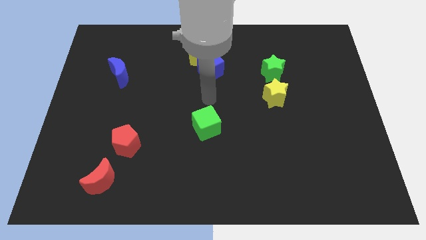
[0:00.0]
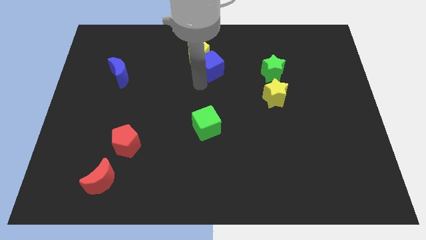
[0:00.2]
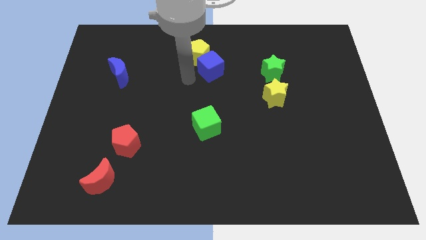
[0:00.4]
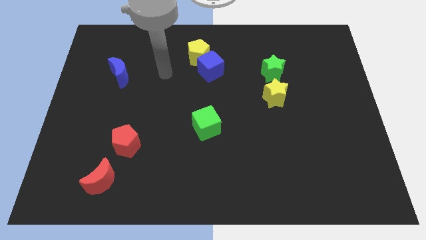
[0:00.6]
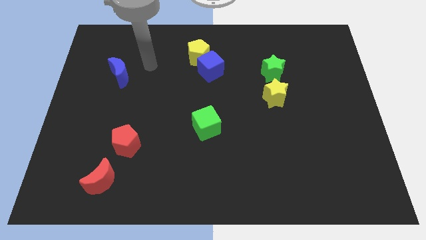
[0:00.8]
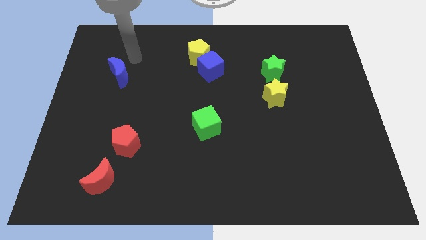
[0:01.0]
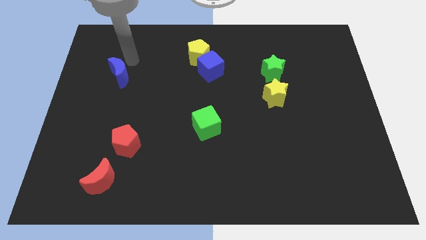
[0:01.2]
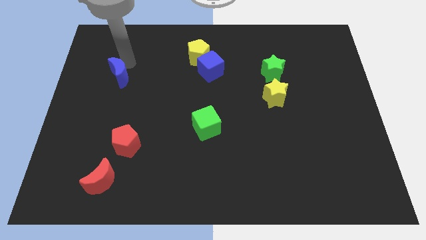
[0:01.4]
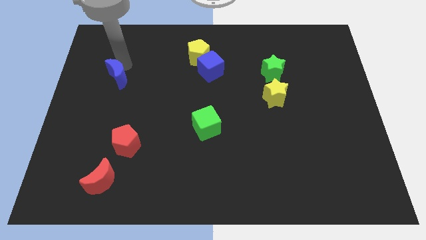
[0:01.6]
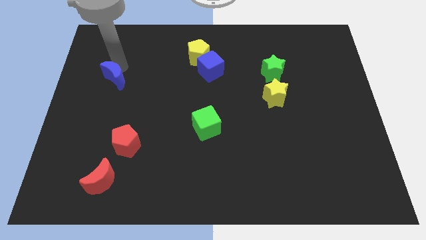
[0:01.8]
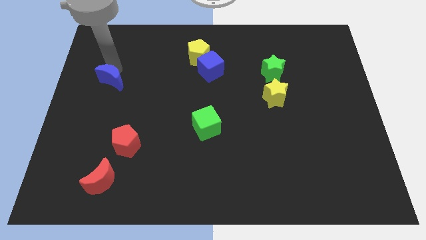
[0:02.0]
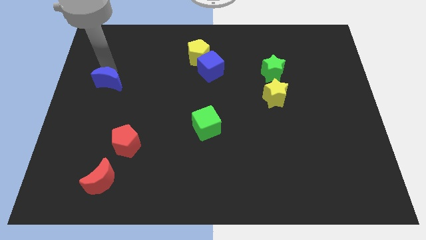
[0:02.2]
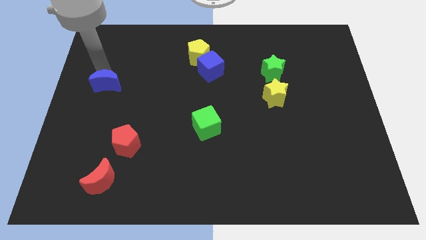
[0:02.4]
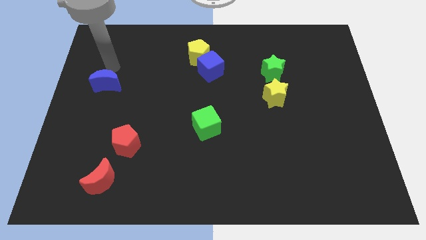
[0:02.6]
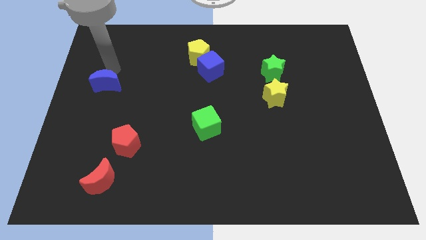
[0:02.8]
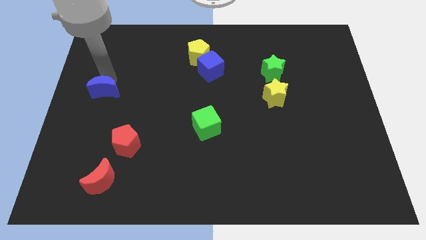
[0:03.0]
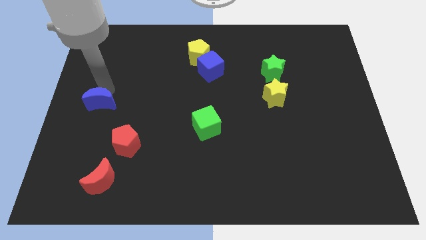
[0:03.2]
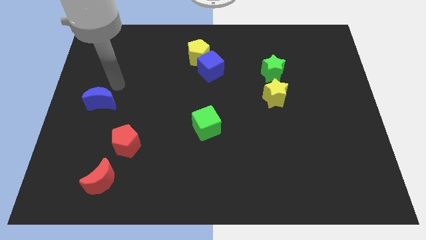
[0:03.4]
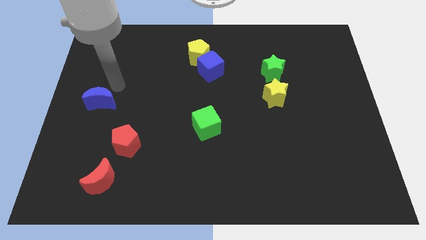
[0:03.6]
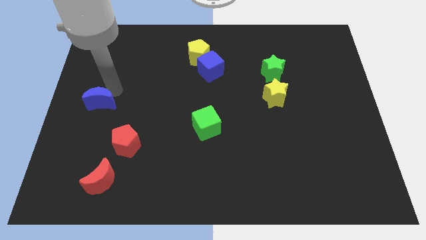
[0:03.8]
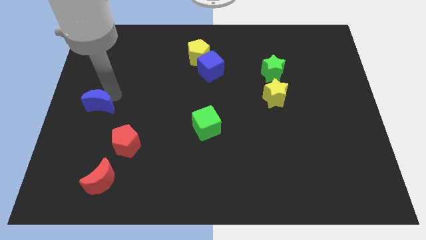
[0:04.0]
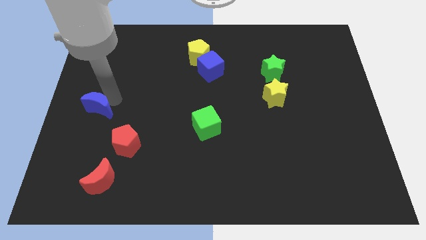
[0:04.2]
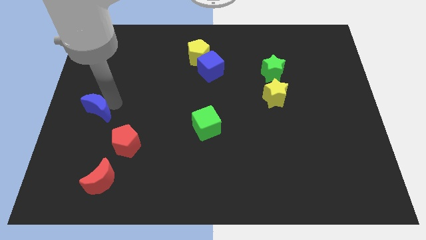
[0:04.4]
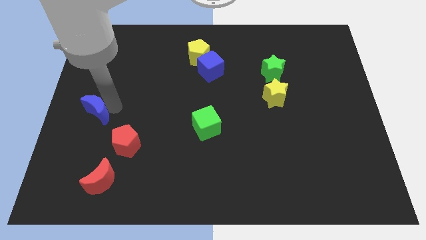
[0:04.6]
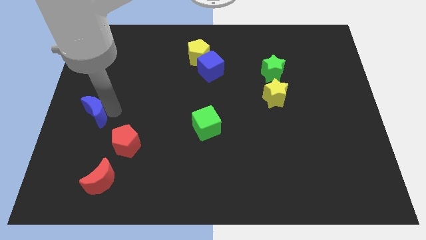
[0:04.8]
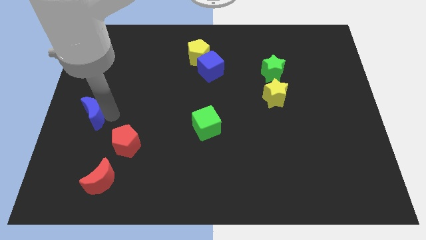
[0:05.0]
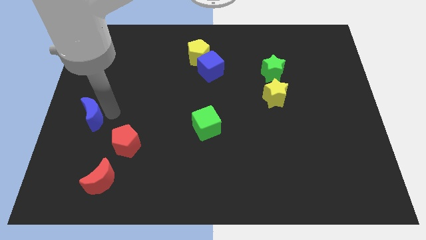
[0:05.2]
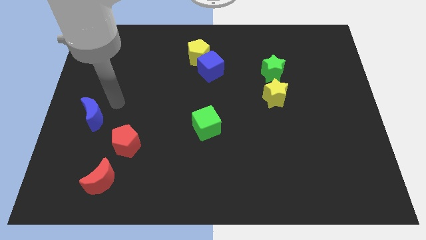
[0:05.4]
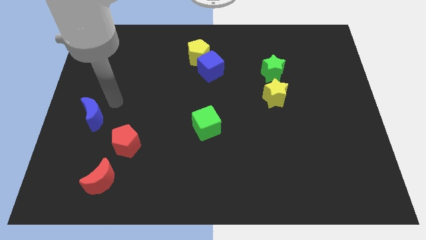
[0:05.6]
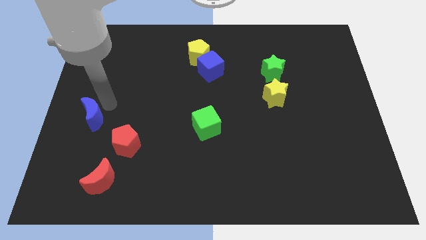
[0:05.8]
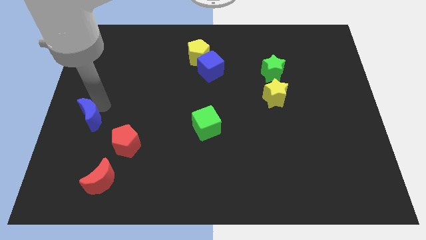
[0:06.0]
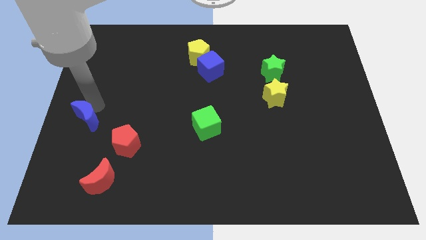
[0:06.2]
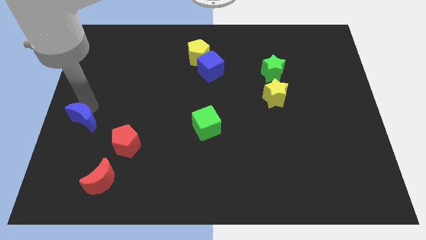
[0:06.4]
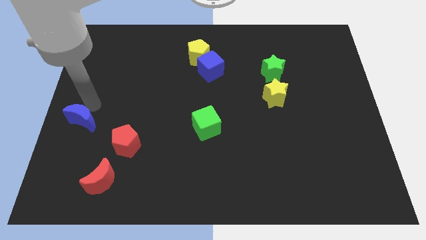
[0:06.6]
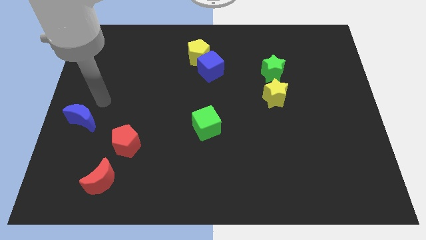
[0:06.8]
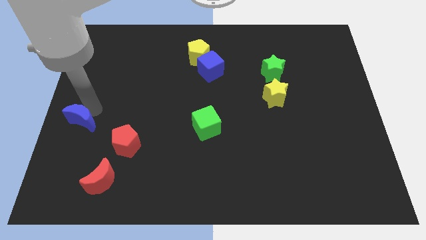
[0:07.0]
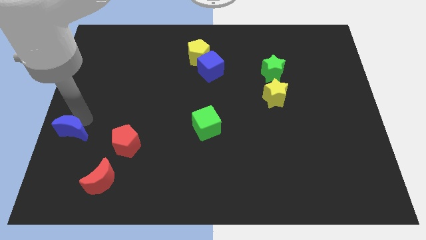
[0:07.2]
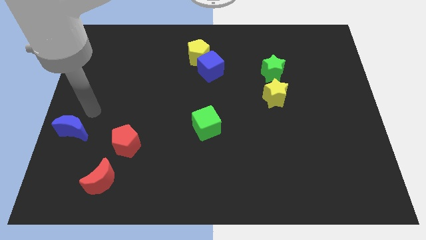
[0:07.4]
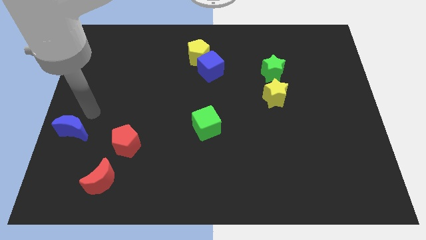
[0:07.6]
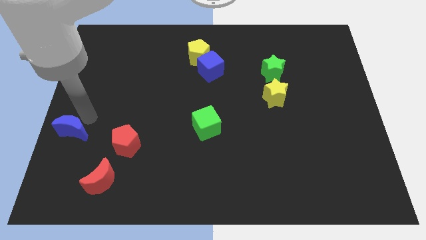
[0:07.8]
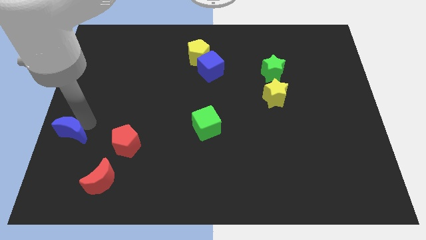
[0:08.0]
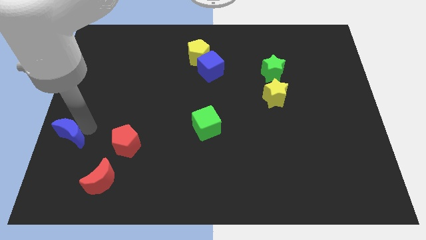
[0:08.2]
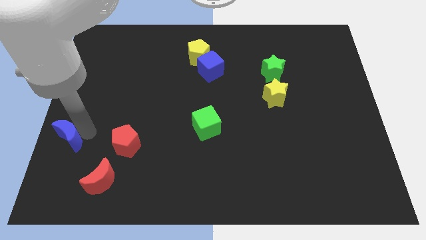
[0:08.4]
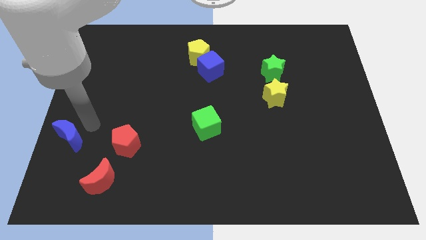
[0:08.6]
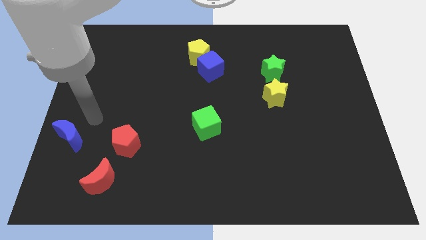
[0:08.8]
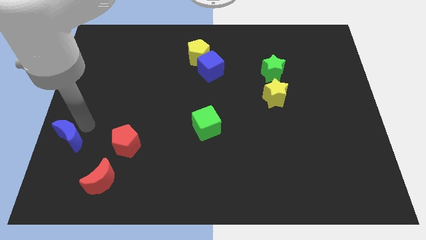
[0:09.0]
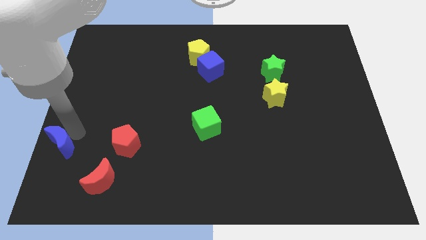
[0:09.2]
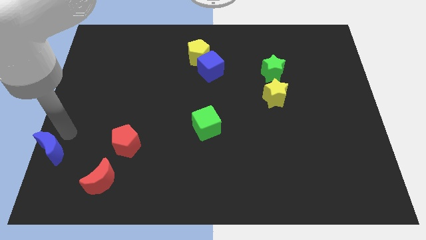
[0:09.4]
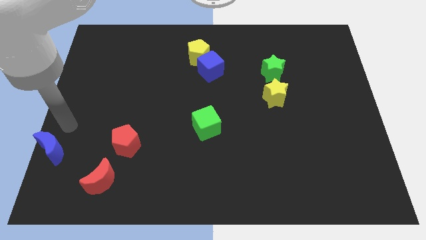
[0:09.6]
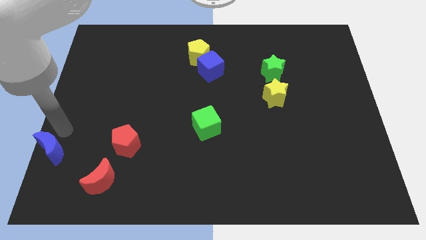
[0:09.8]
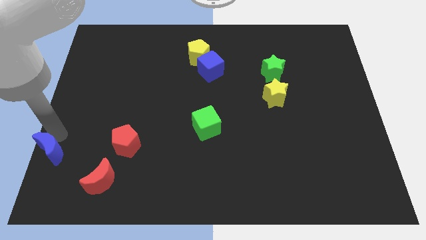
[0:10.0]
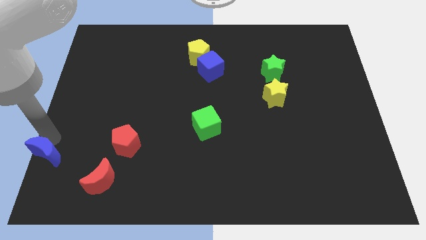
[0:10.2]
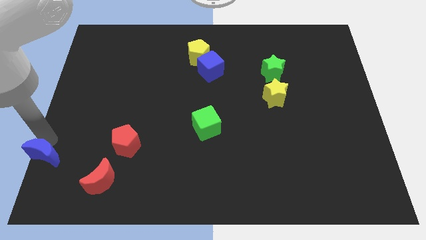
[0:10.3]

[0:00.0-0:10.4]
move the blue moon to the bottom left

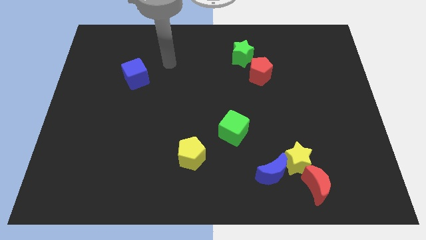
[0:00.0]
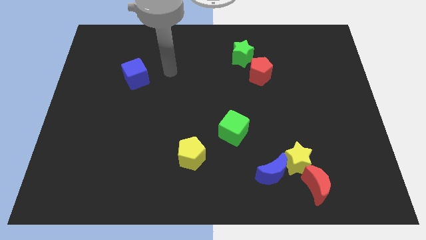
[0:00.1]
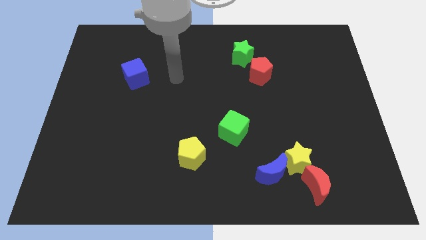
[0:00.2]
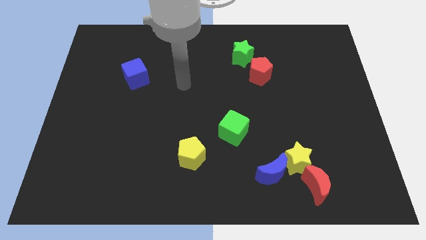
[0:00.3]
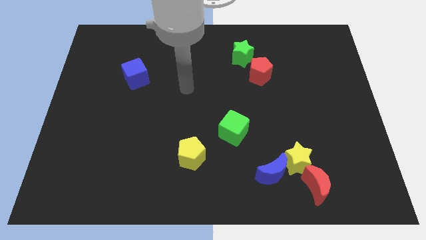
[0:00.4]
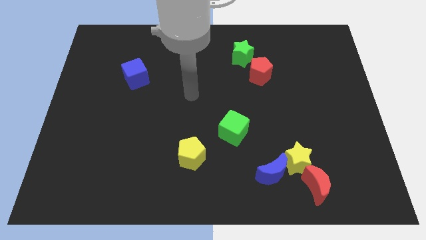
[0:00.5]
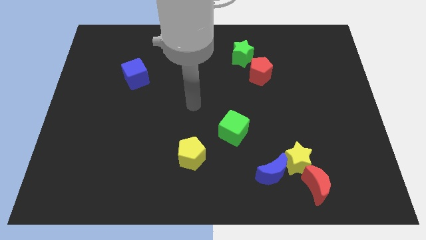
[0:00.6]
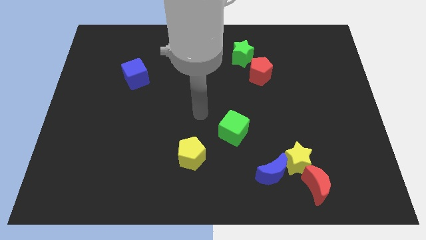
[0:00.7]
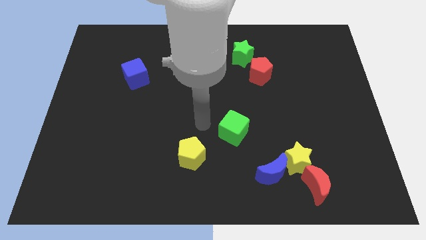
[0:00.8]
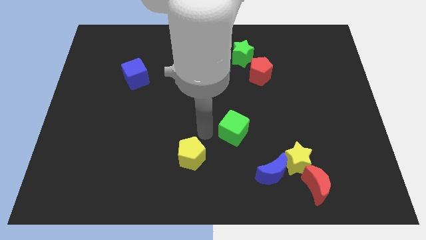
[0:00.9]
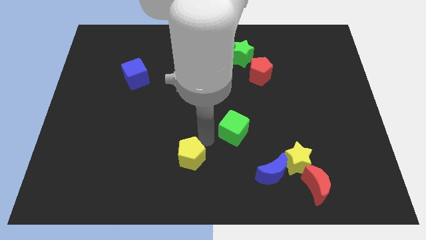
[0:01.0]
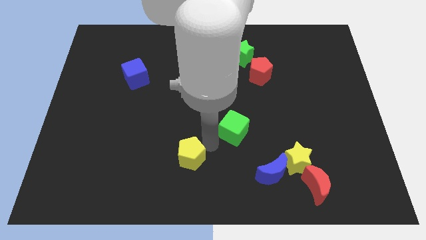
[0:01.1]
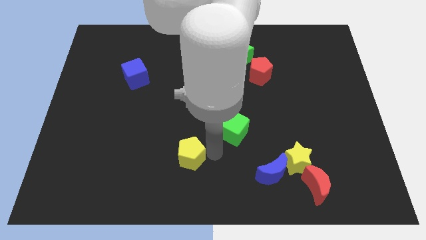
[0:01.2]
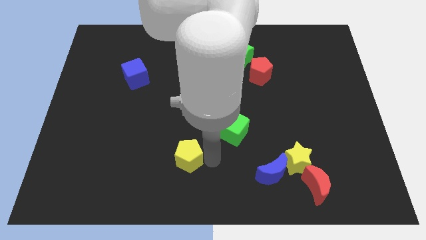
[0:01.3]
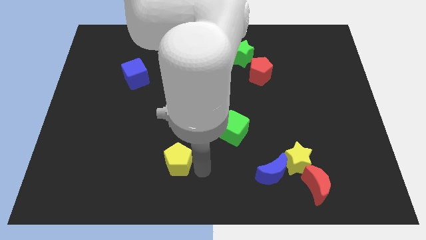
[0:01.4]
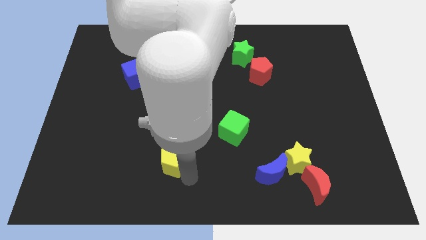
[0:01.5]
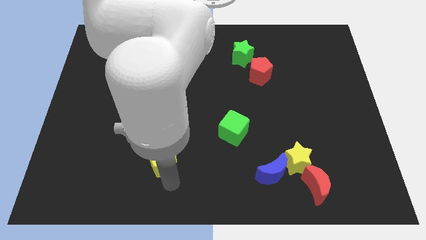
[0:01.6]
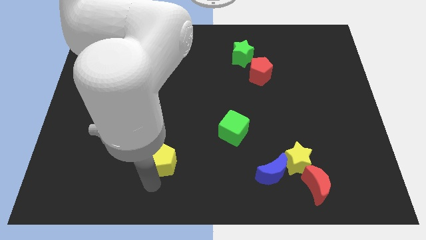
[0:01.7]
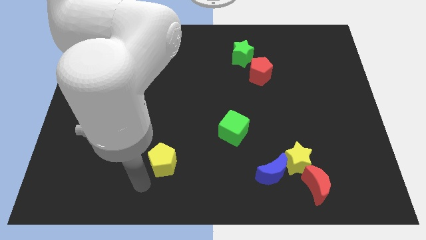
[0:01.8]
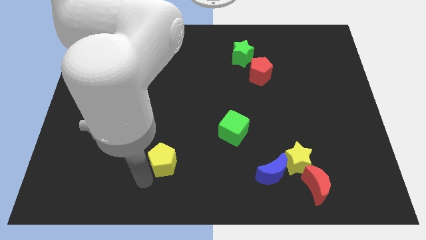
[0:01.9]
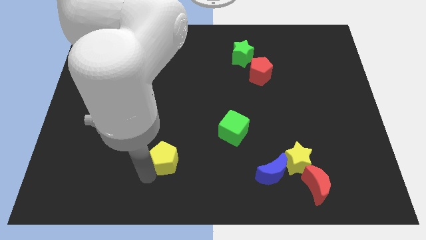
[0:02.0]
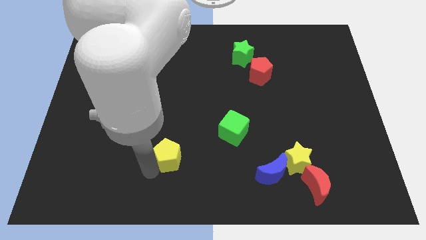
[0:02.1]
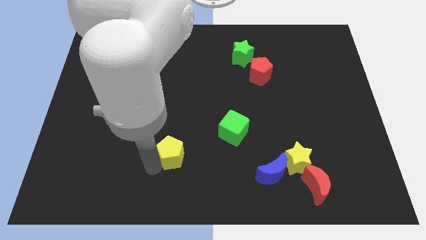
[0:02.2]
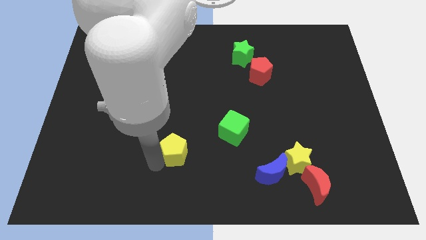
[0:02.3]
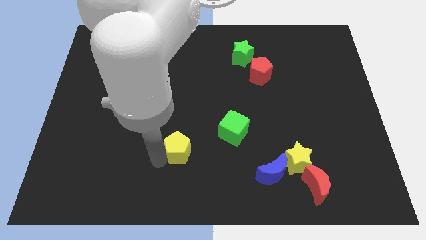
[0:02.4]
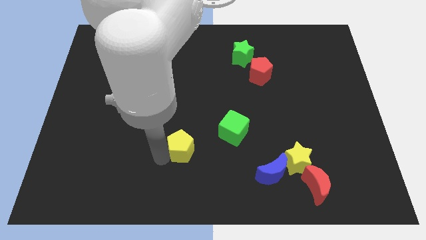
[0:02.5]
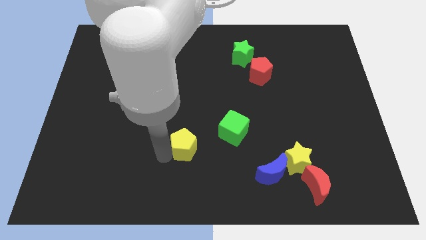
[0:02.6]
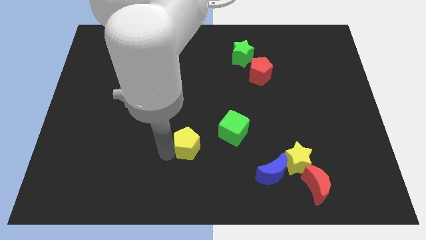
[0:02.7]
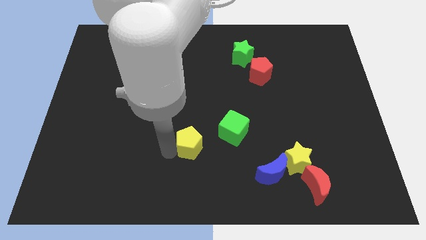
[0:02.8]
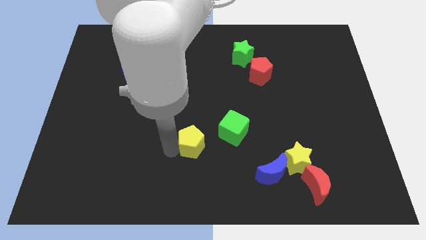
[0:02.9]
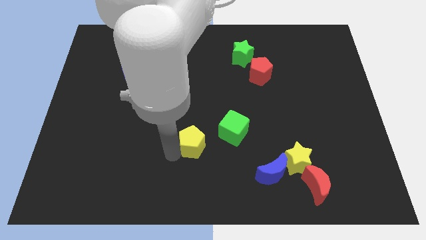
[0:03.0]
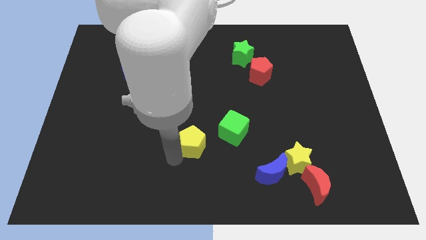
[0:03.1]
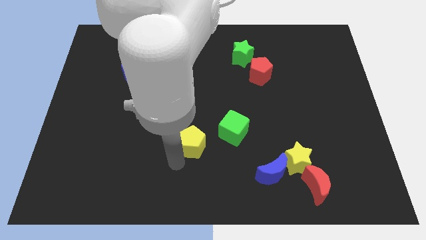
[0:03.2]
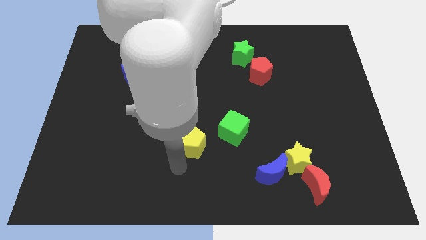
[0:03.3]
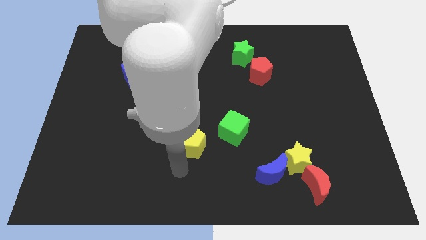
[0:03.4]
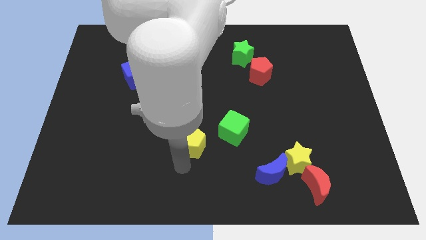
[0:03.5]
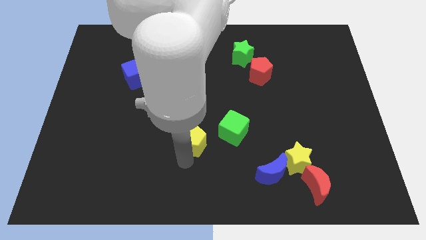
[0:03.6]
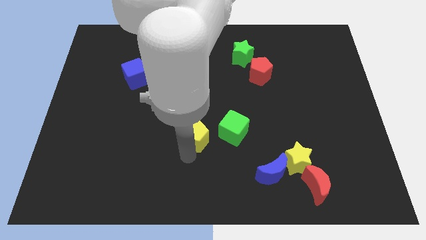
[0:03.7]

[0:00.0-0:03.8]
push the yellow pentagon to the middle
